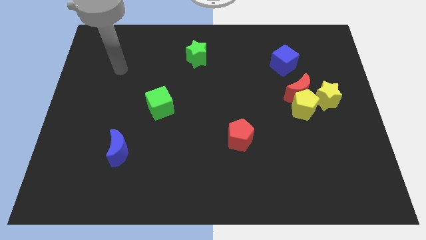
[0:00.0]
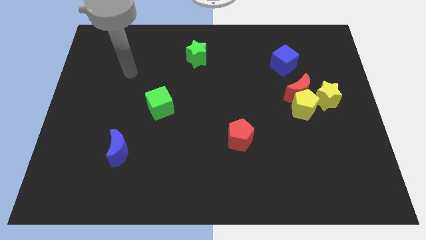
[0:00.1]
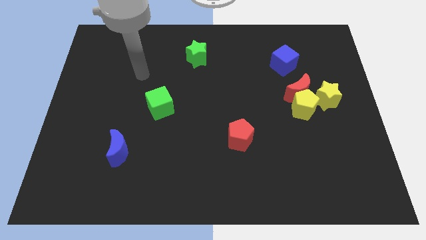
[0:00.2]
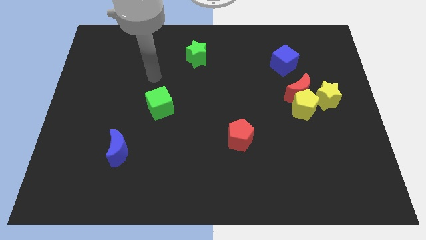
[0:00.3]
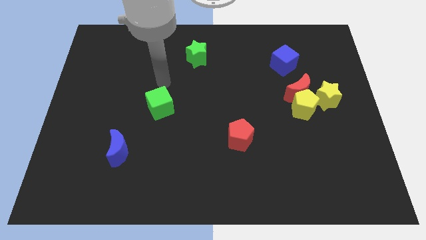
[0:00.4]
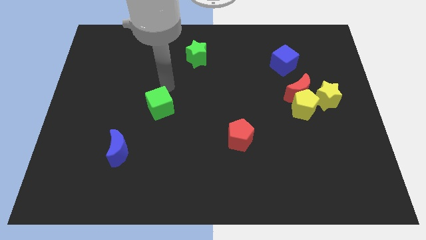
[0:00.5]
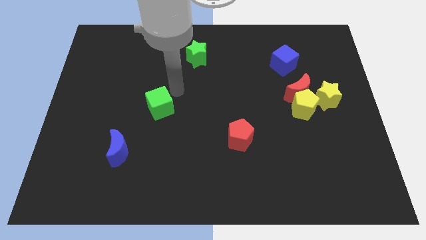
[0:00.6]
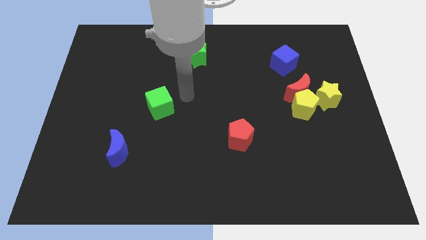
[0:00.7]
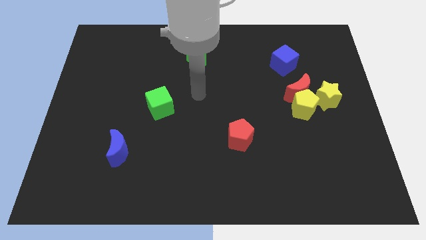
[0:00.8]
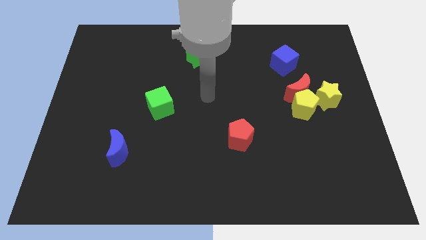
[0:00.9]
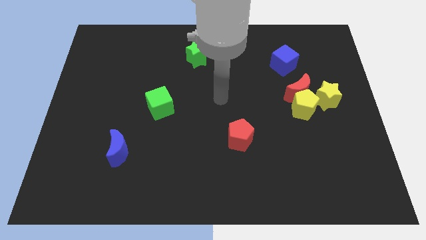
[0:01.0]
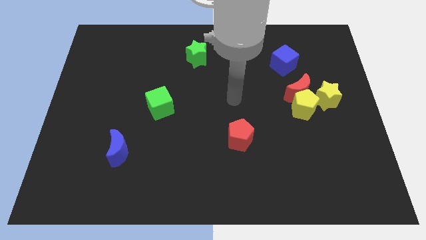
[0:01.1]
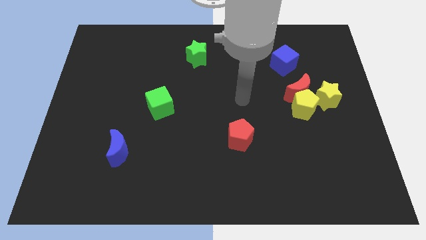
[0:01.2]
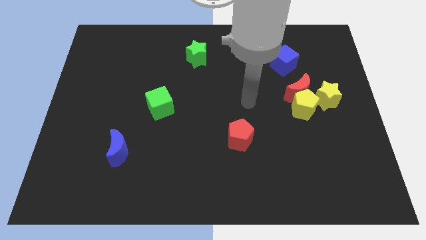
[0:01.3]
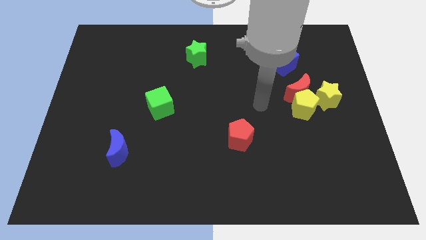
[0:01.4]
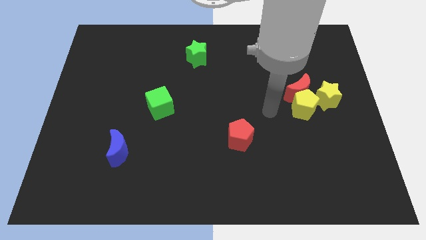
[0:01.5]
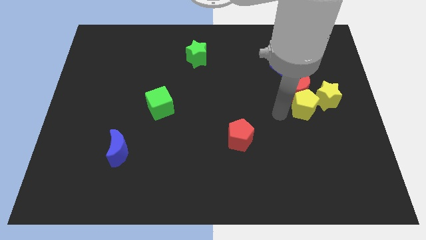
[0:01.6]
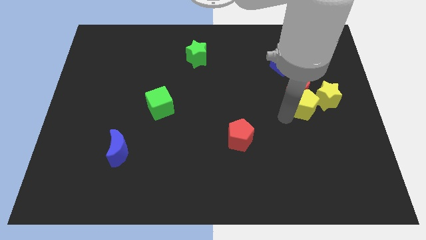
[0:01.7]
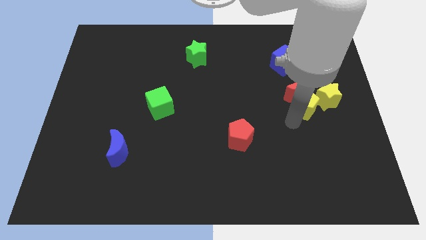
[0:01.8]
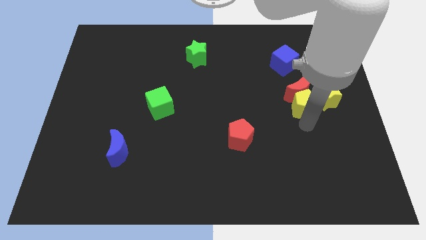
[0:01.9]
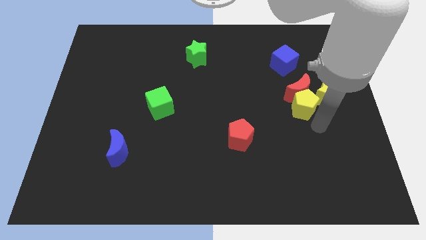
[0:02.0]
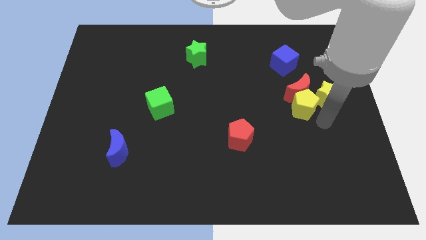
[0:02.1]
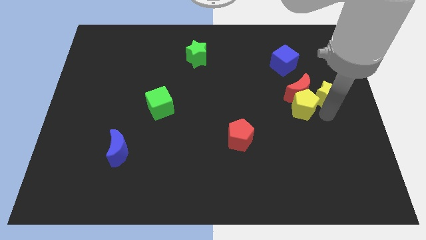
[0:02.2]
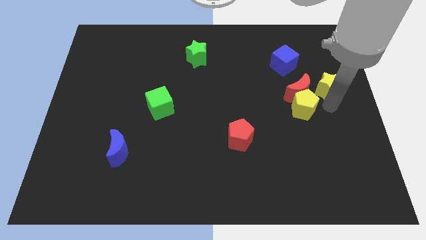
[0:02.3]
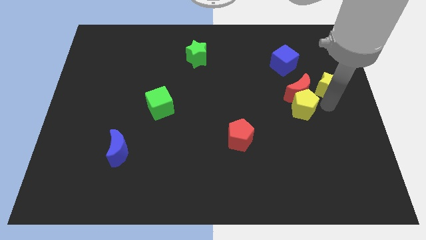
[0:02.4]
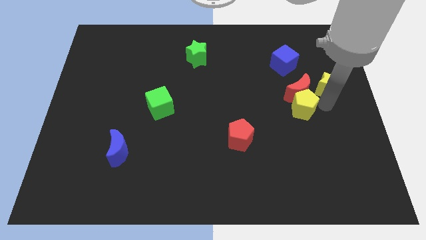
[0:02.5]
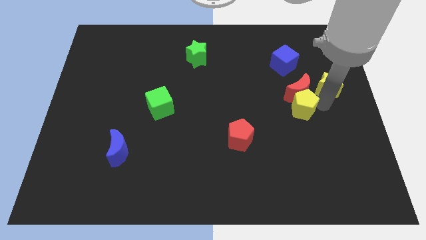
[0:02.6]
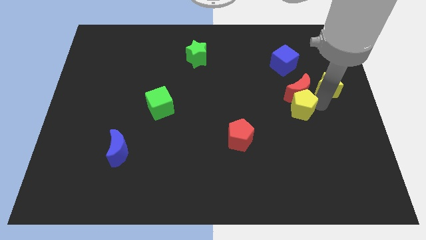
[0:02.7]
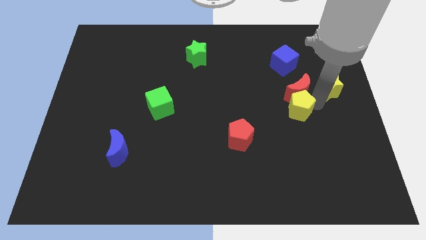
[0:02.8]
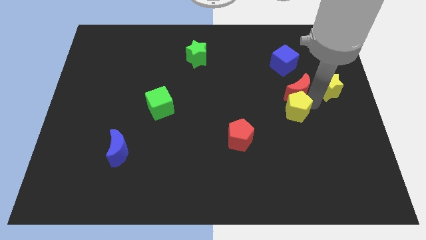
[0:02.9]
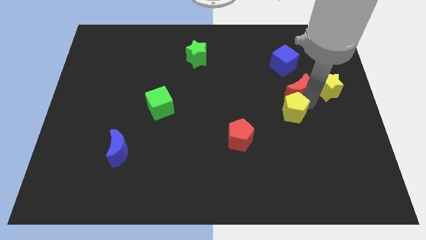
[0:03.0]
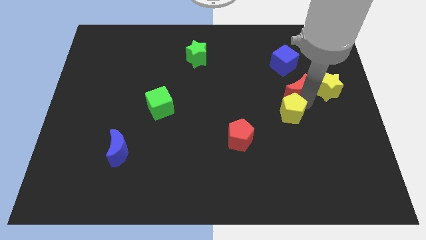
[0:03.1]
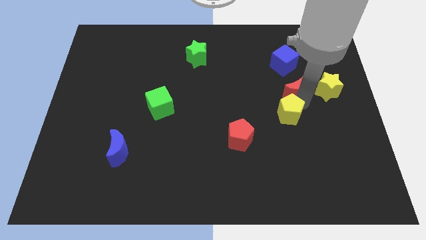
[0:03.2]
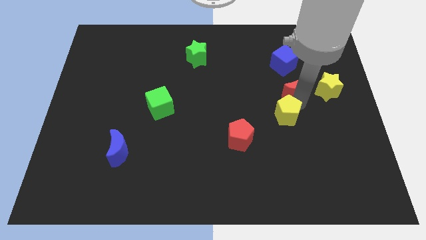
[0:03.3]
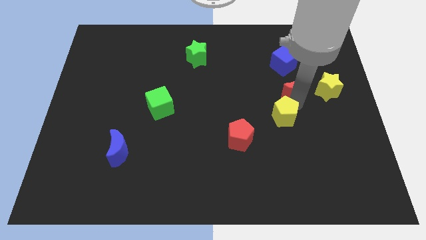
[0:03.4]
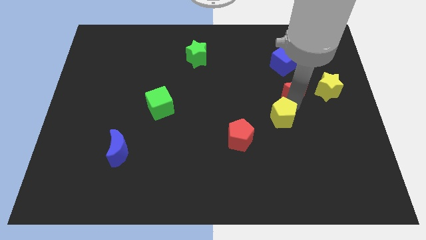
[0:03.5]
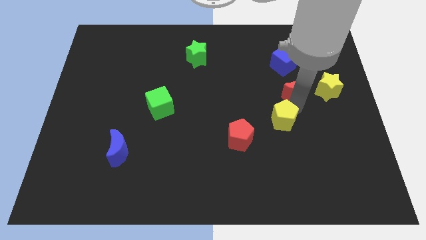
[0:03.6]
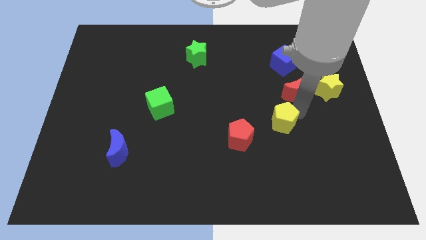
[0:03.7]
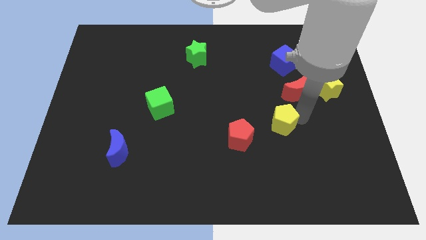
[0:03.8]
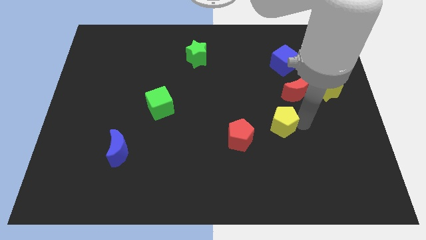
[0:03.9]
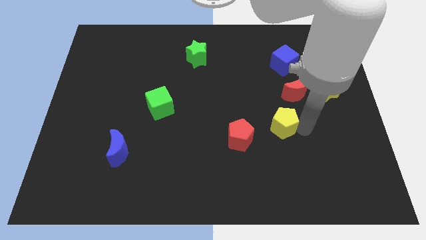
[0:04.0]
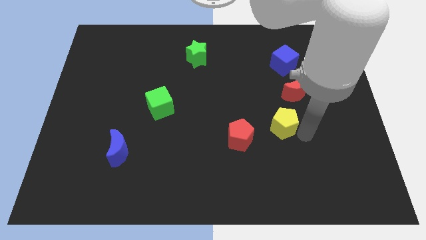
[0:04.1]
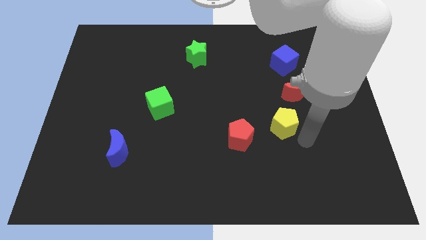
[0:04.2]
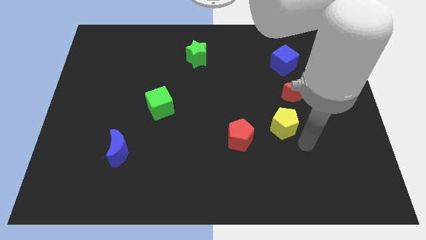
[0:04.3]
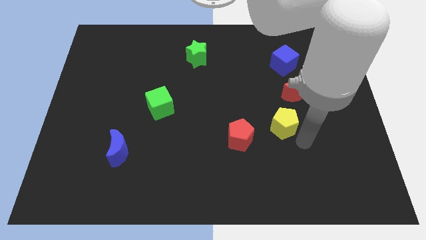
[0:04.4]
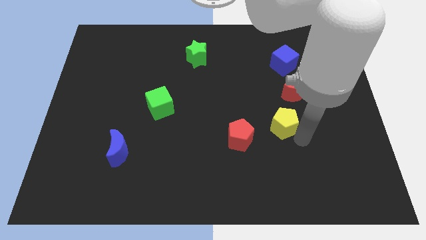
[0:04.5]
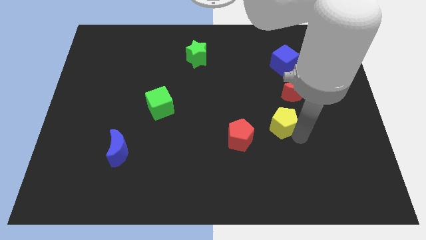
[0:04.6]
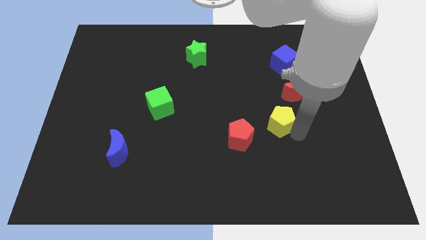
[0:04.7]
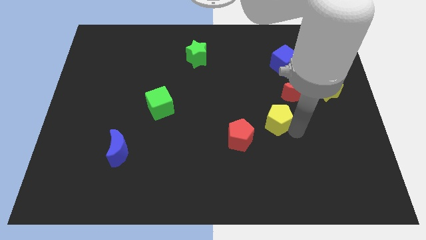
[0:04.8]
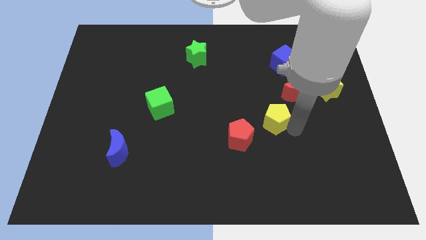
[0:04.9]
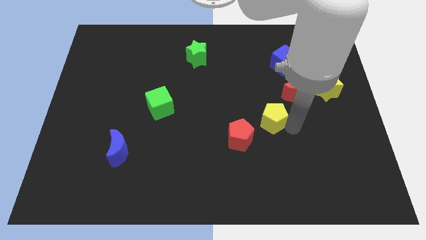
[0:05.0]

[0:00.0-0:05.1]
slide the yellow pentagon a little left

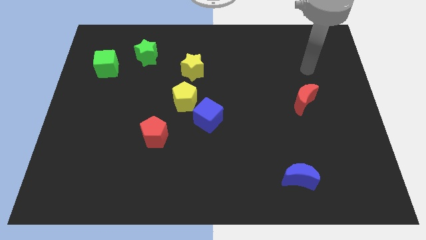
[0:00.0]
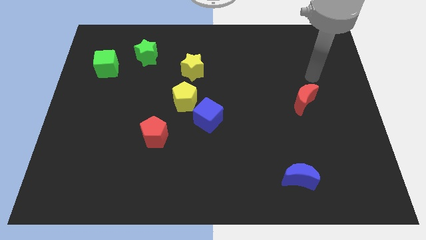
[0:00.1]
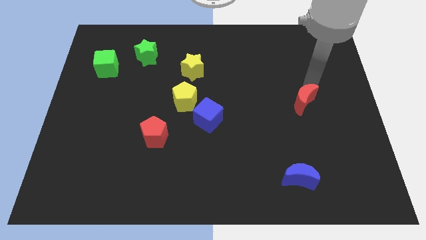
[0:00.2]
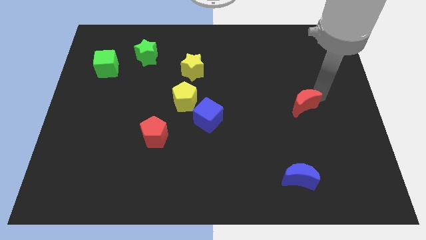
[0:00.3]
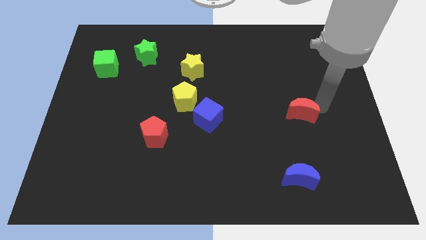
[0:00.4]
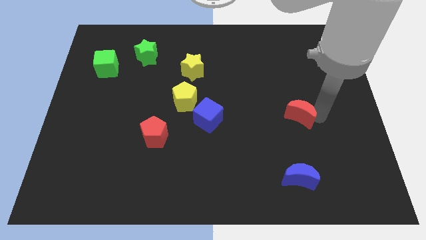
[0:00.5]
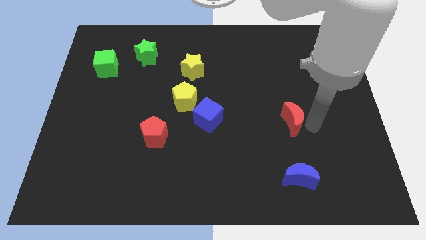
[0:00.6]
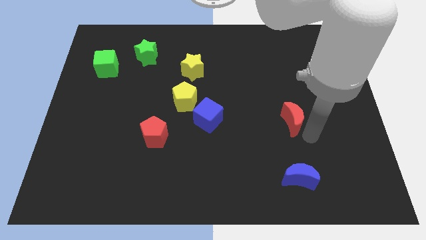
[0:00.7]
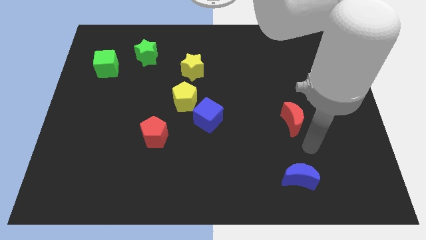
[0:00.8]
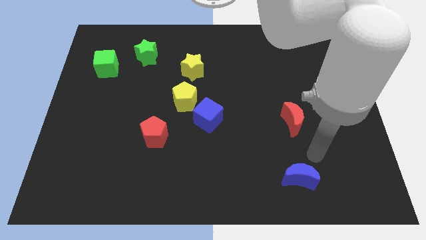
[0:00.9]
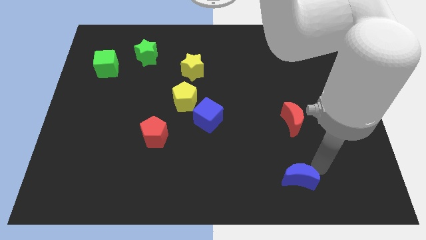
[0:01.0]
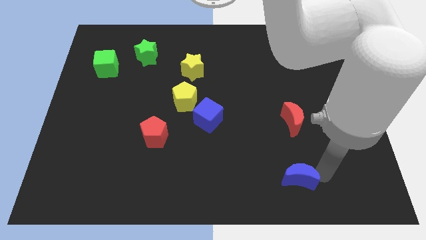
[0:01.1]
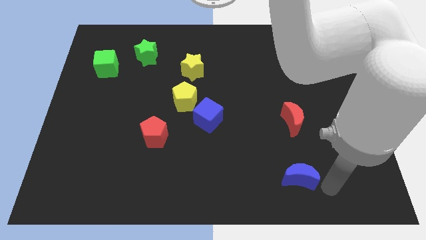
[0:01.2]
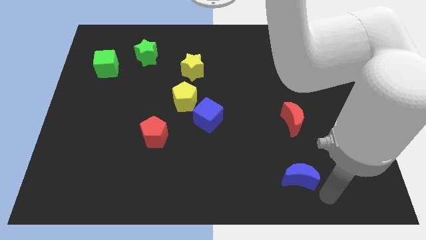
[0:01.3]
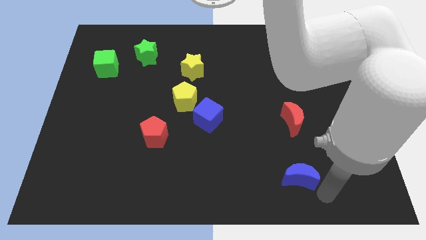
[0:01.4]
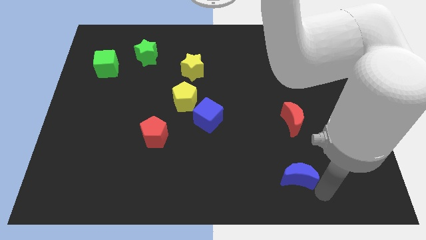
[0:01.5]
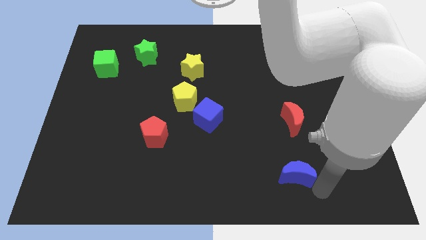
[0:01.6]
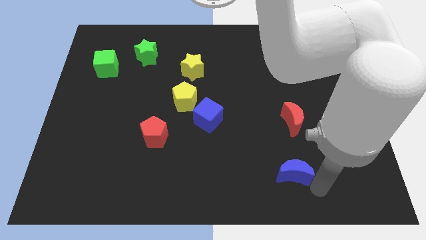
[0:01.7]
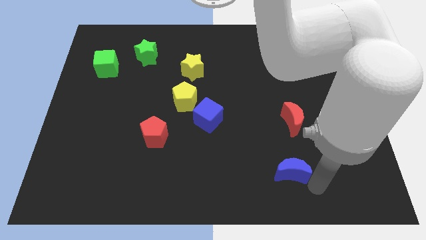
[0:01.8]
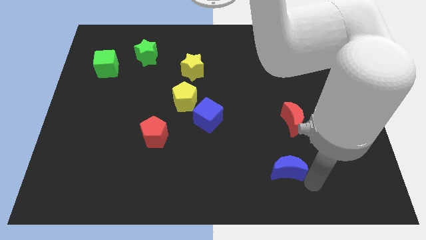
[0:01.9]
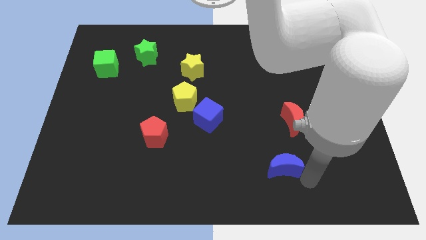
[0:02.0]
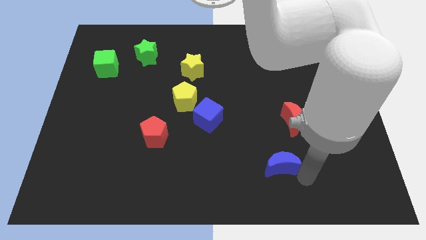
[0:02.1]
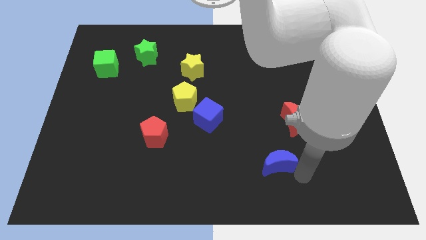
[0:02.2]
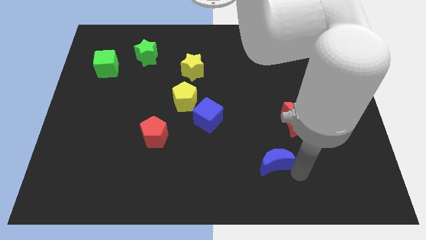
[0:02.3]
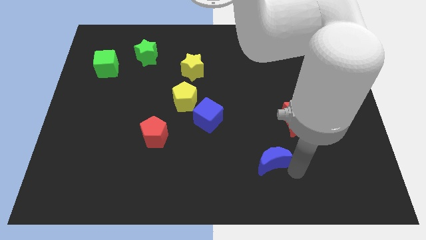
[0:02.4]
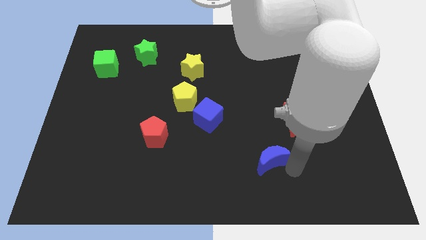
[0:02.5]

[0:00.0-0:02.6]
push the blue moon upwards and then left slightly

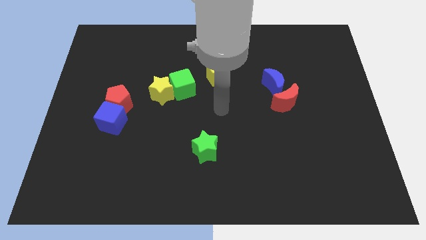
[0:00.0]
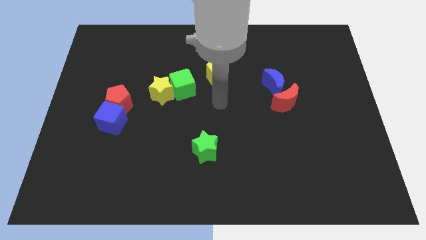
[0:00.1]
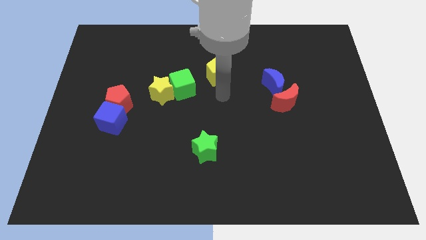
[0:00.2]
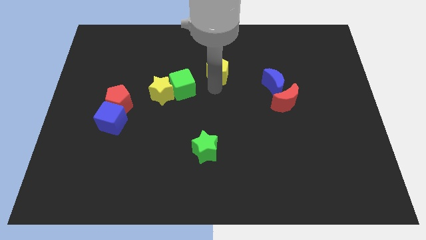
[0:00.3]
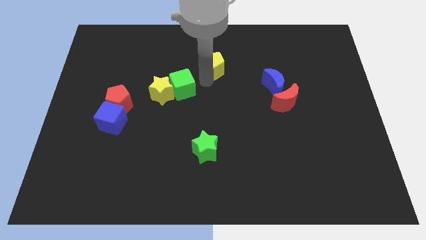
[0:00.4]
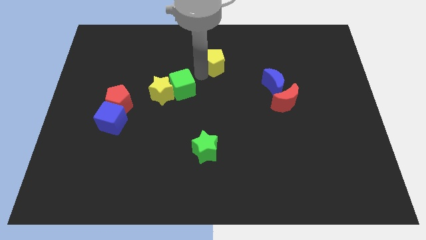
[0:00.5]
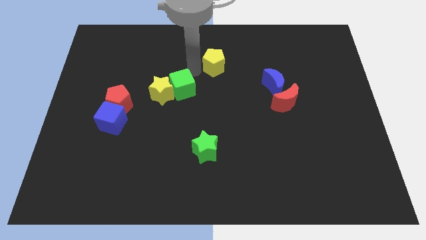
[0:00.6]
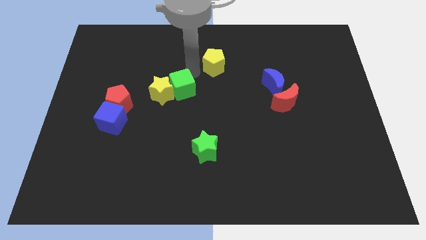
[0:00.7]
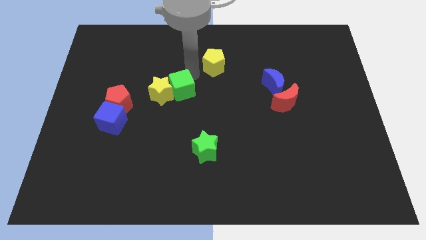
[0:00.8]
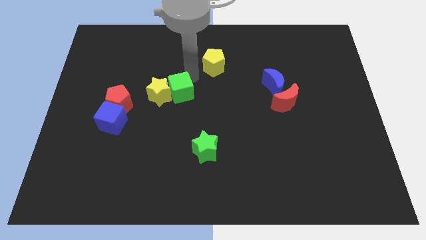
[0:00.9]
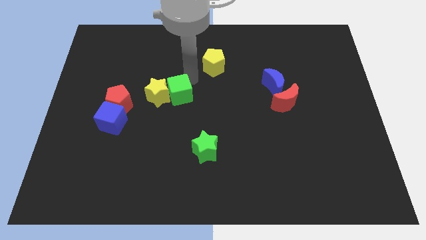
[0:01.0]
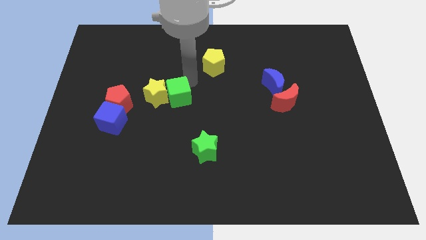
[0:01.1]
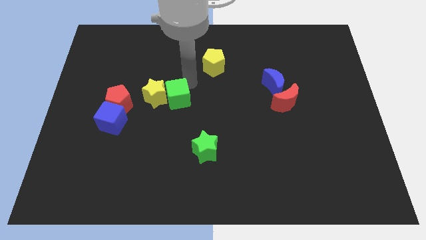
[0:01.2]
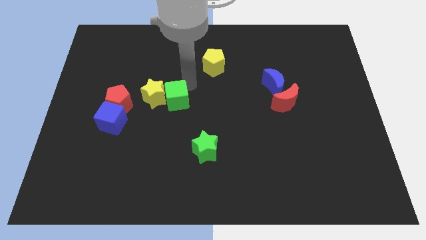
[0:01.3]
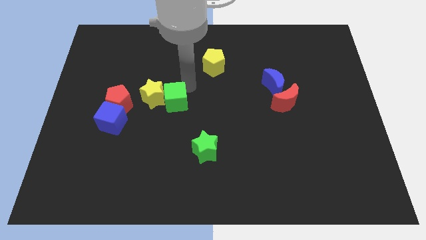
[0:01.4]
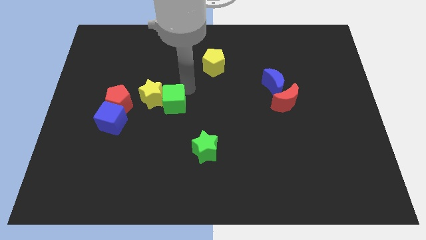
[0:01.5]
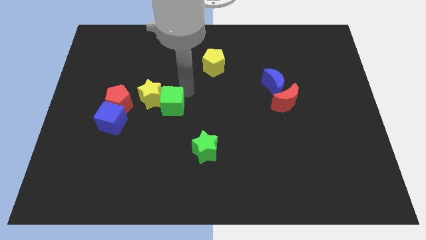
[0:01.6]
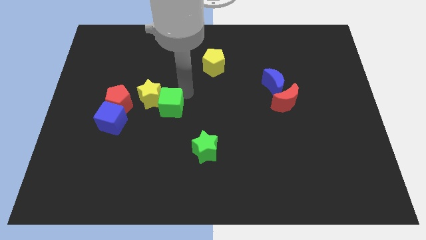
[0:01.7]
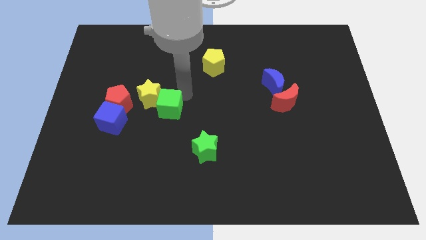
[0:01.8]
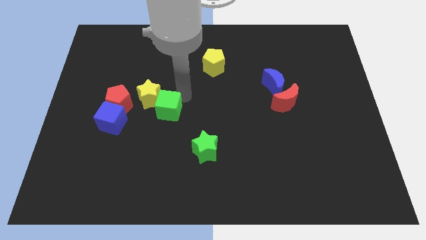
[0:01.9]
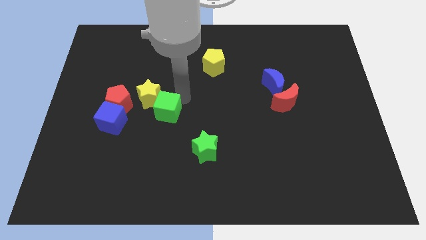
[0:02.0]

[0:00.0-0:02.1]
slide the green cube downwards and then to the left somewhat
